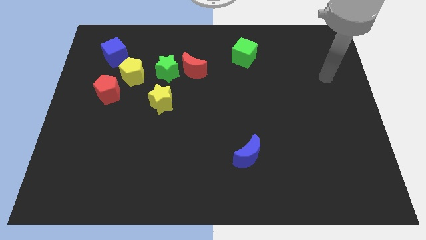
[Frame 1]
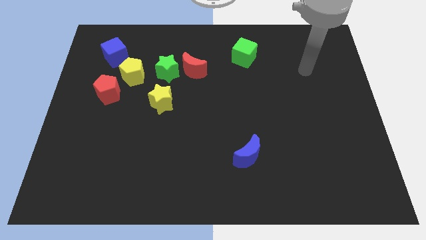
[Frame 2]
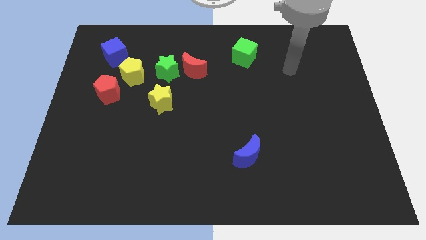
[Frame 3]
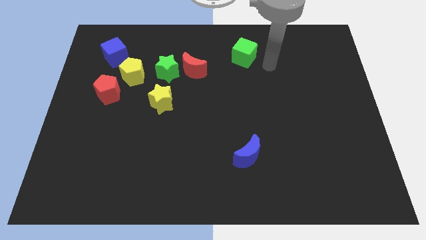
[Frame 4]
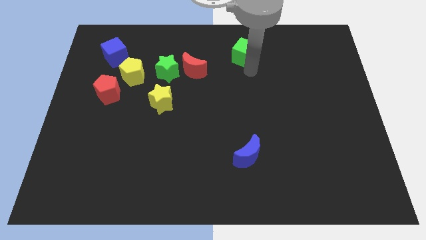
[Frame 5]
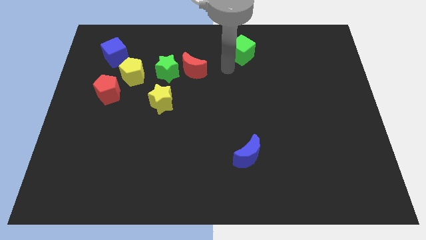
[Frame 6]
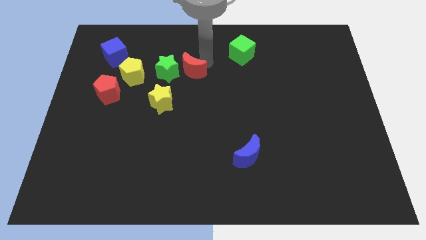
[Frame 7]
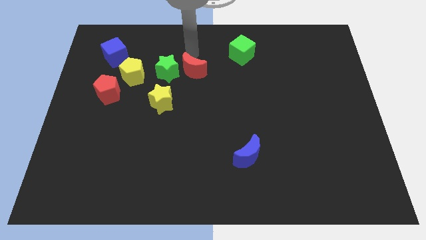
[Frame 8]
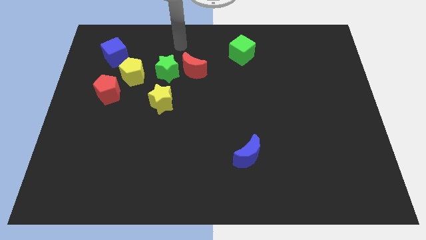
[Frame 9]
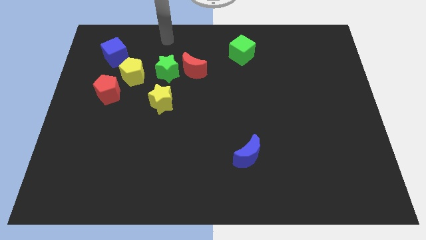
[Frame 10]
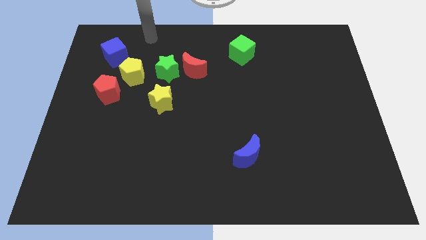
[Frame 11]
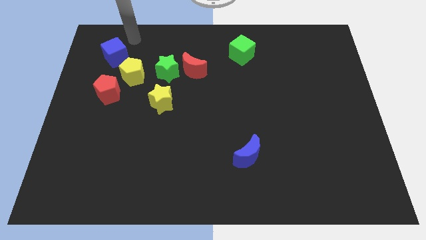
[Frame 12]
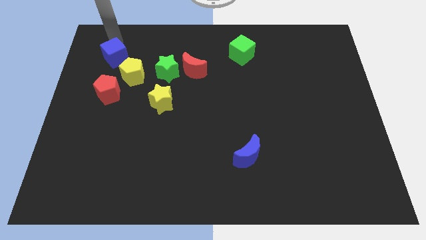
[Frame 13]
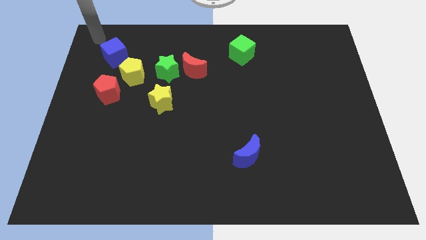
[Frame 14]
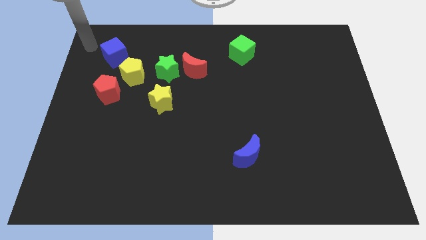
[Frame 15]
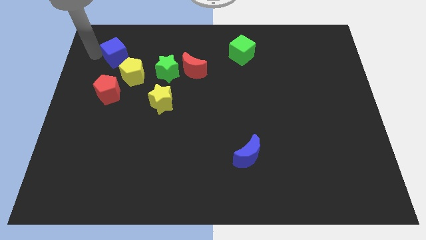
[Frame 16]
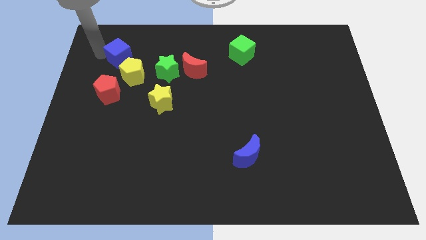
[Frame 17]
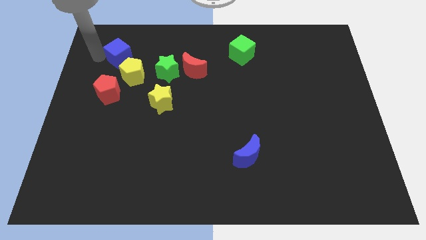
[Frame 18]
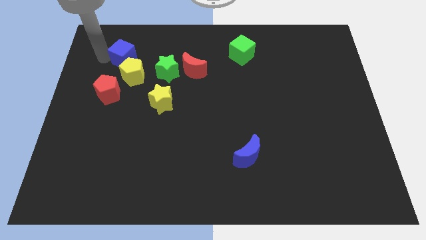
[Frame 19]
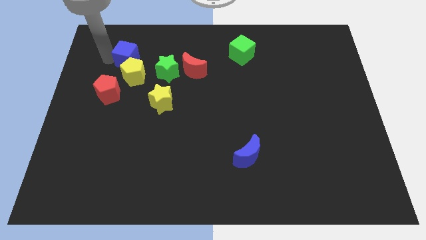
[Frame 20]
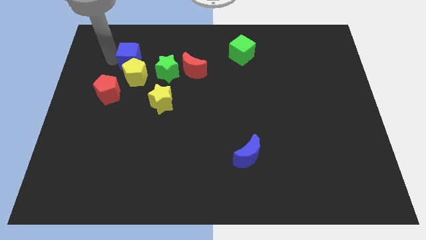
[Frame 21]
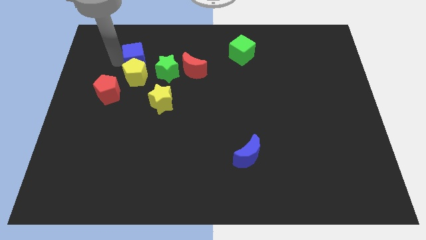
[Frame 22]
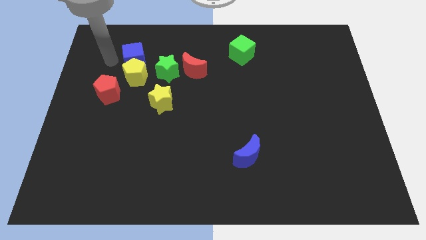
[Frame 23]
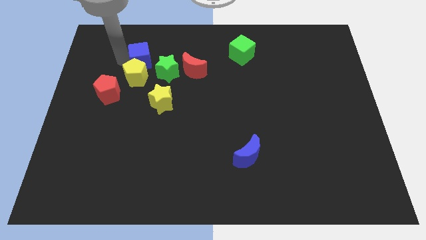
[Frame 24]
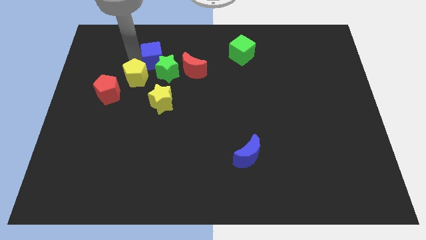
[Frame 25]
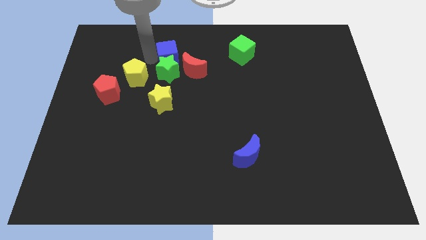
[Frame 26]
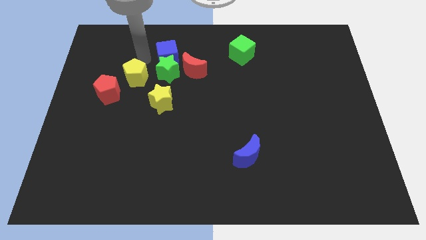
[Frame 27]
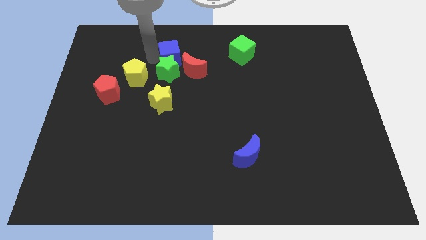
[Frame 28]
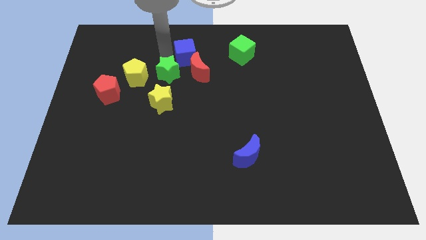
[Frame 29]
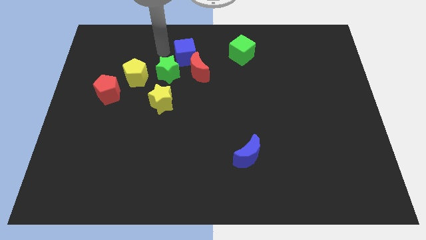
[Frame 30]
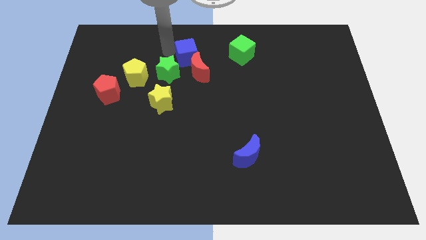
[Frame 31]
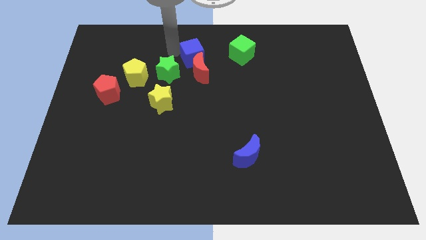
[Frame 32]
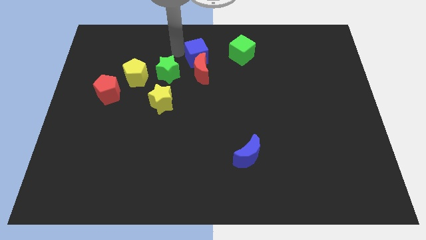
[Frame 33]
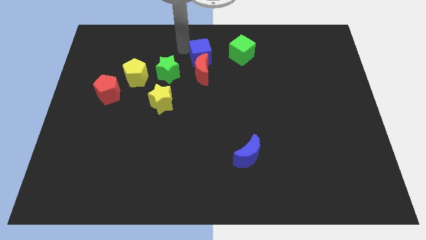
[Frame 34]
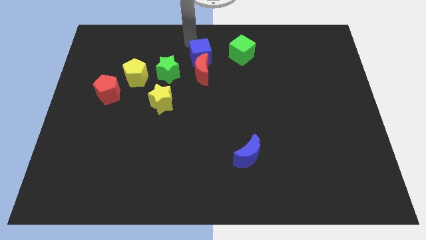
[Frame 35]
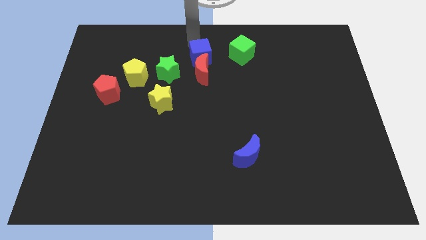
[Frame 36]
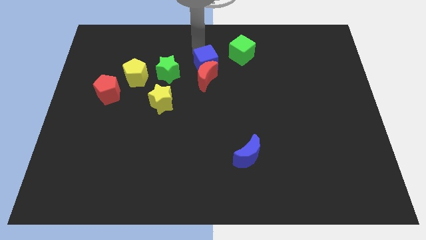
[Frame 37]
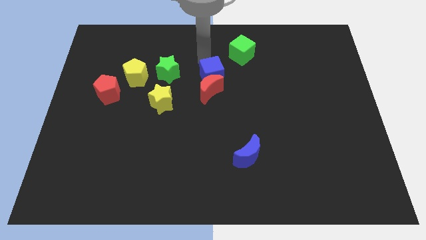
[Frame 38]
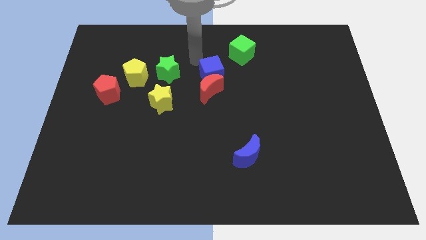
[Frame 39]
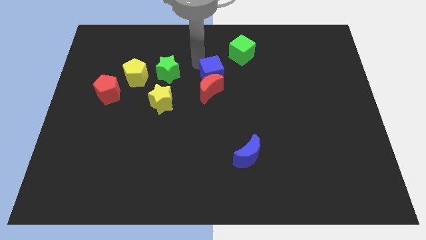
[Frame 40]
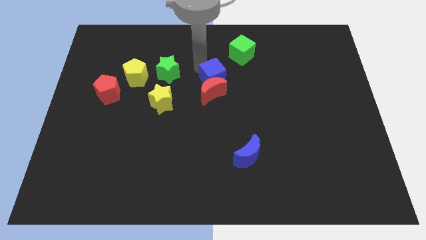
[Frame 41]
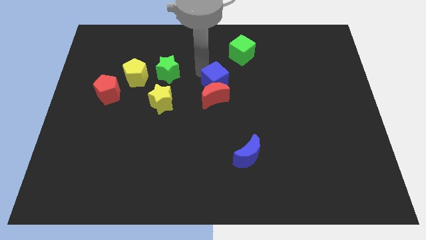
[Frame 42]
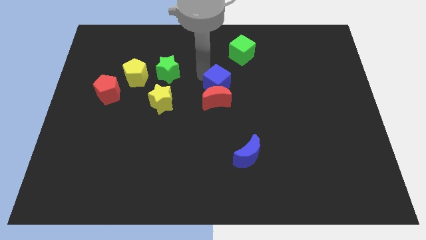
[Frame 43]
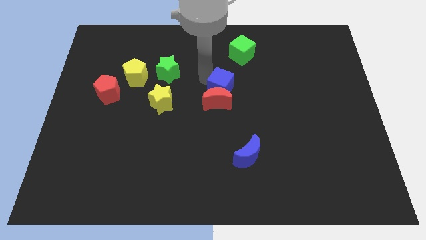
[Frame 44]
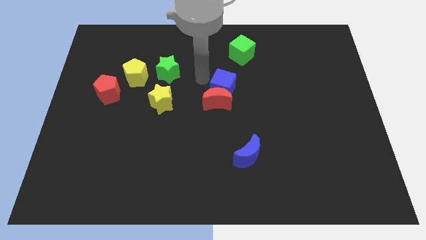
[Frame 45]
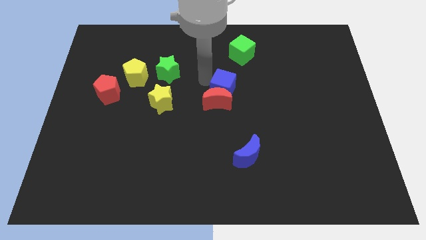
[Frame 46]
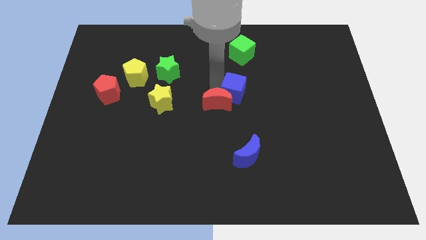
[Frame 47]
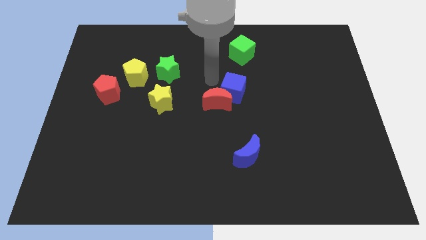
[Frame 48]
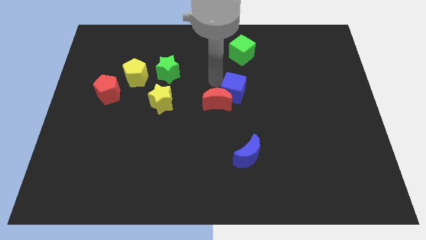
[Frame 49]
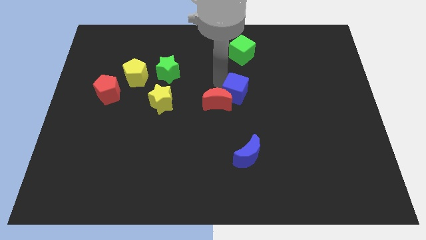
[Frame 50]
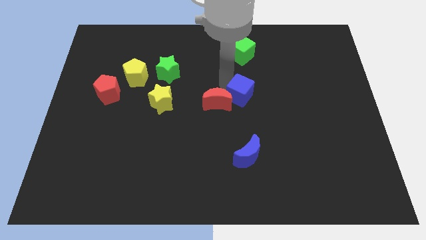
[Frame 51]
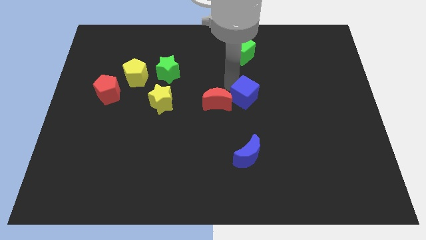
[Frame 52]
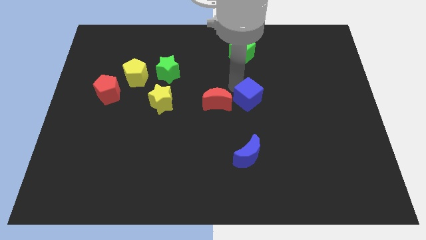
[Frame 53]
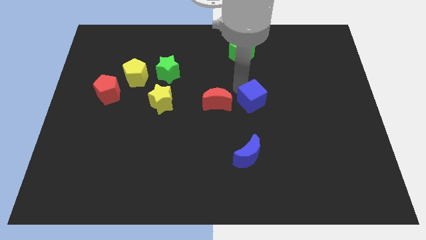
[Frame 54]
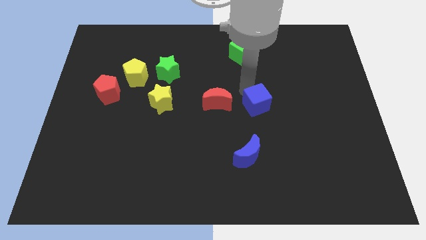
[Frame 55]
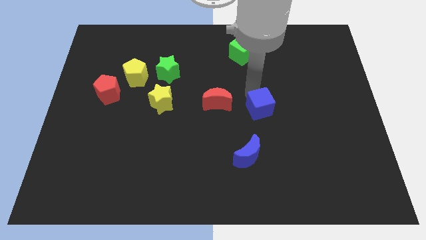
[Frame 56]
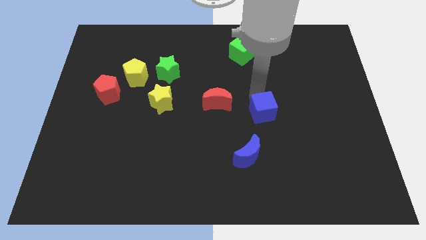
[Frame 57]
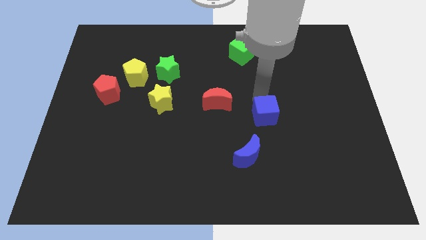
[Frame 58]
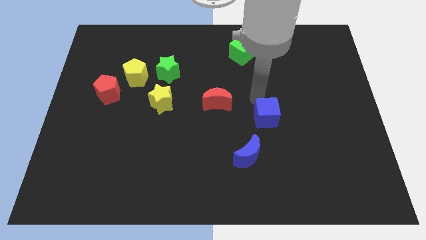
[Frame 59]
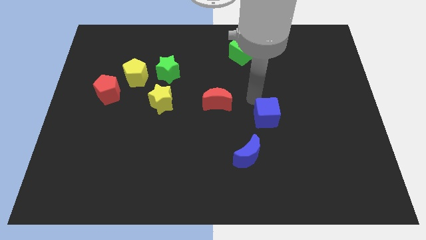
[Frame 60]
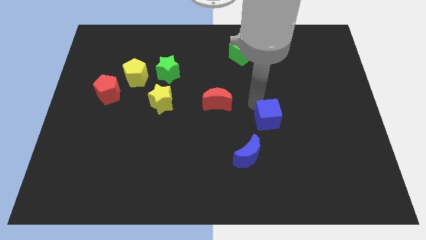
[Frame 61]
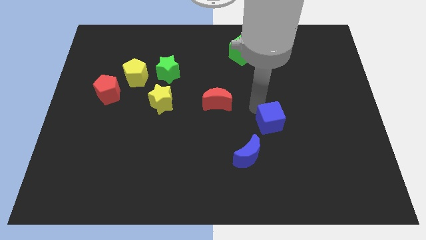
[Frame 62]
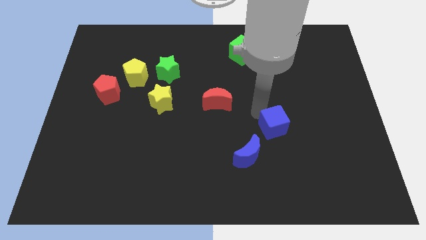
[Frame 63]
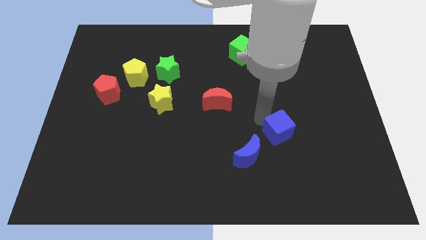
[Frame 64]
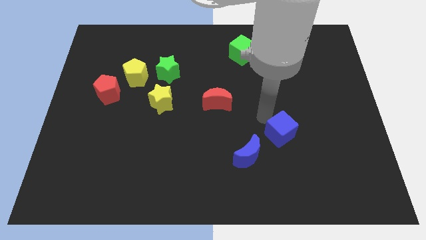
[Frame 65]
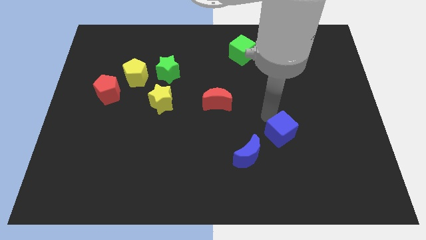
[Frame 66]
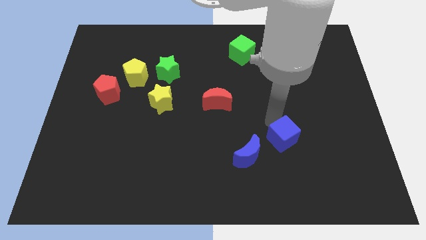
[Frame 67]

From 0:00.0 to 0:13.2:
put the blue cube to the right of the blue moon
